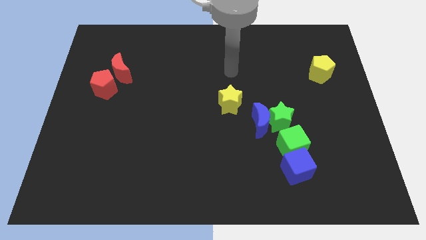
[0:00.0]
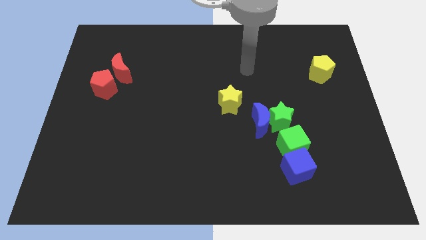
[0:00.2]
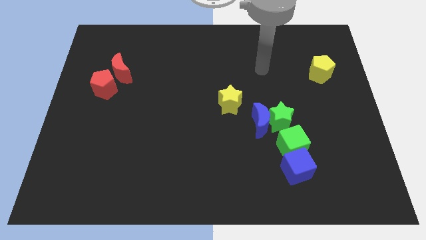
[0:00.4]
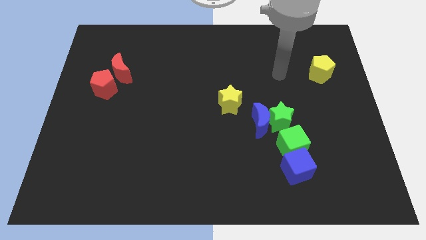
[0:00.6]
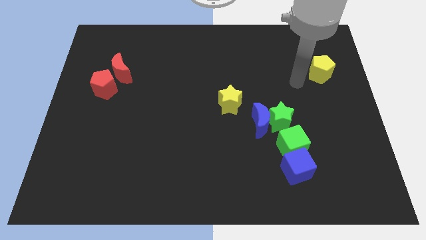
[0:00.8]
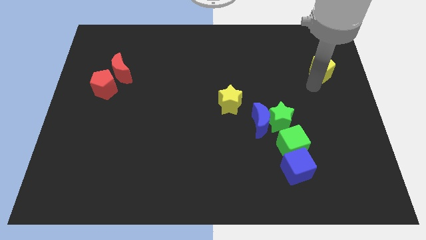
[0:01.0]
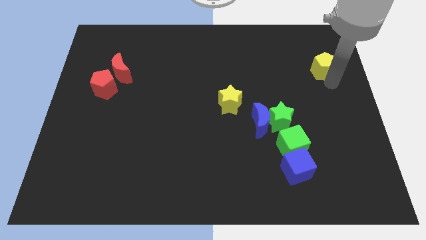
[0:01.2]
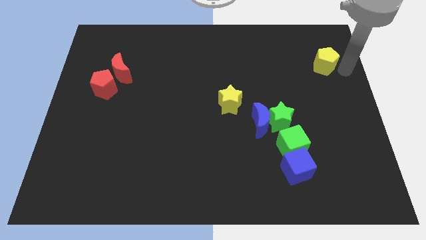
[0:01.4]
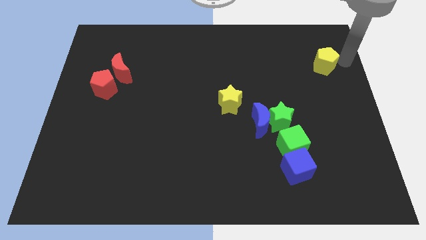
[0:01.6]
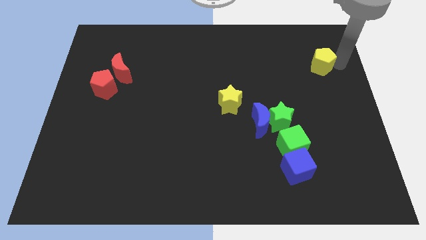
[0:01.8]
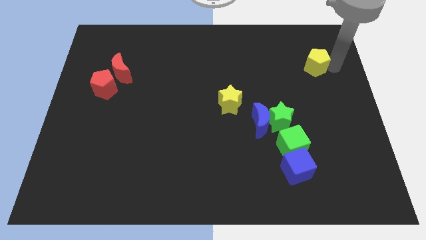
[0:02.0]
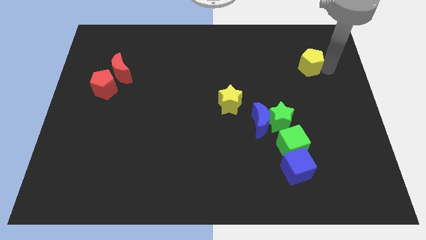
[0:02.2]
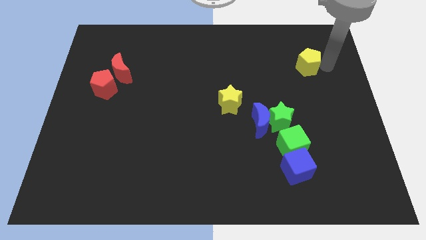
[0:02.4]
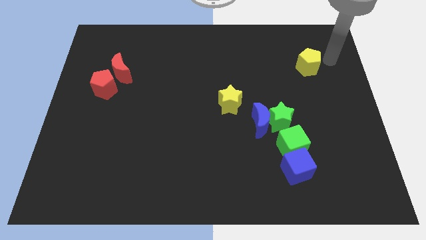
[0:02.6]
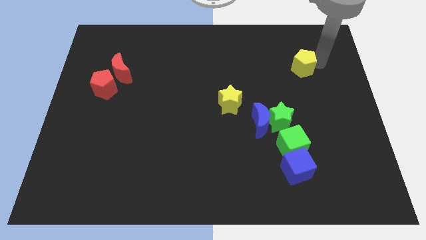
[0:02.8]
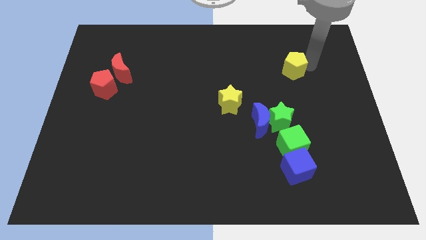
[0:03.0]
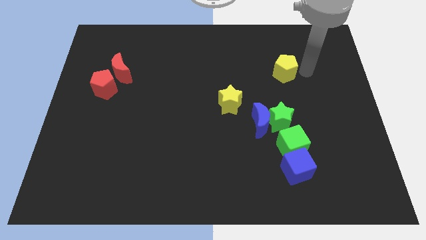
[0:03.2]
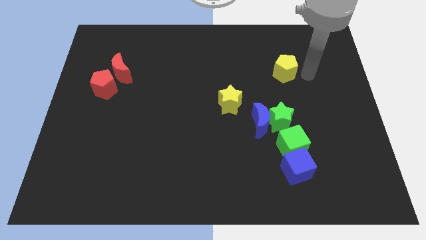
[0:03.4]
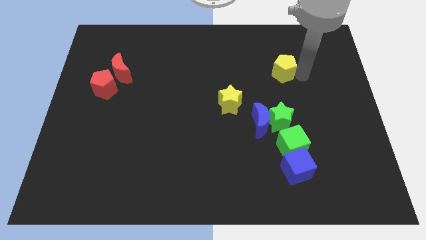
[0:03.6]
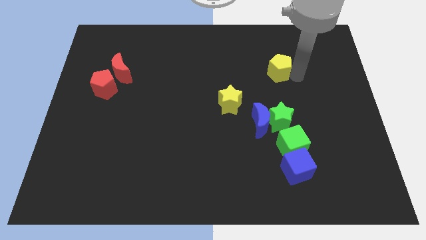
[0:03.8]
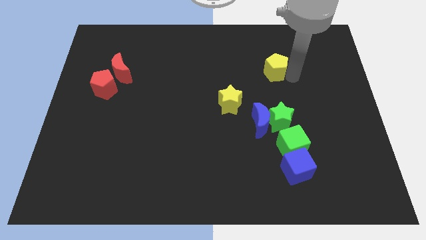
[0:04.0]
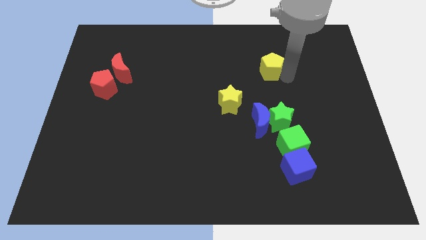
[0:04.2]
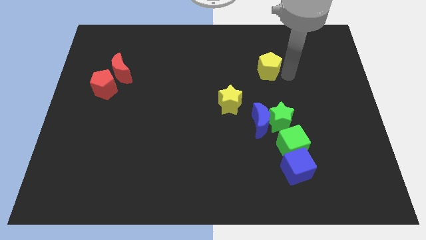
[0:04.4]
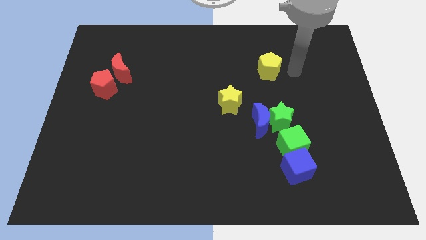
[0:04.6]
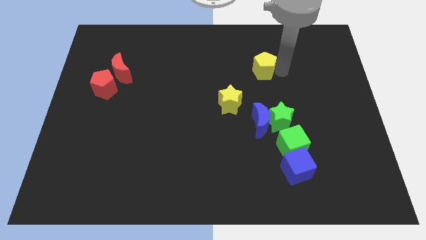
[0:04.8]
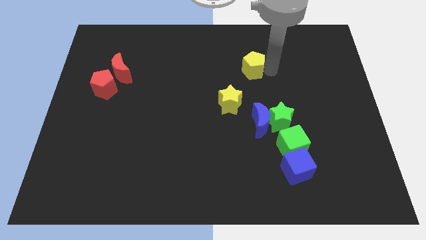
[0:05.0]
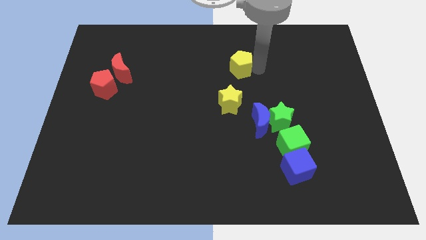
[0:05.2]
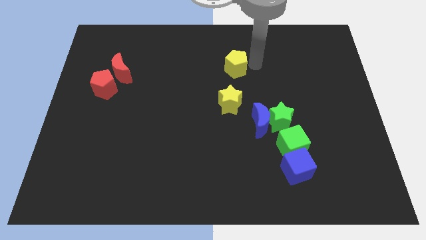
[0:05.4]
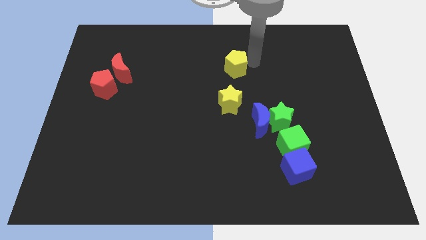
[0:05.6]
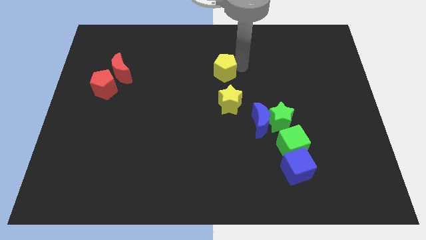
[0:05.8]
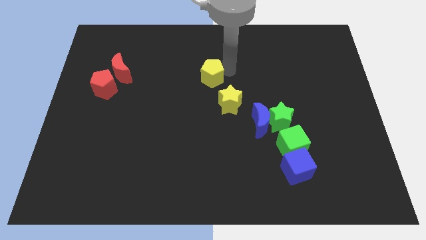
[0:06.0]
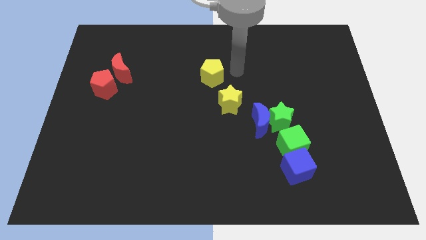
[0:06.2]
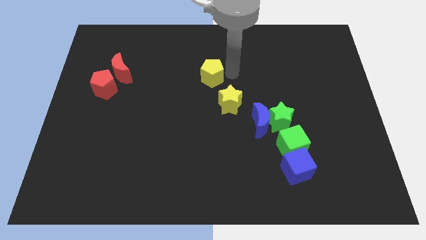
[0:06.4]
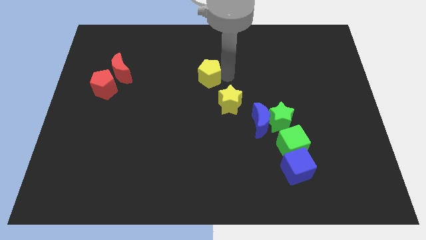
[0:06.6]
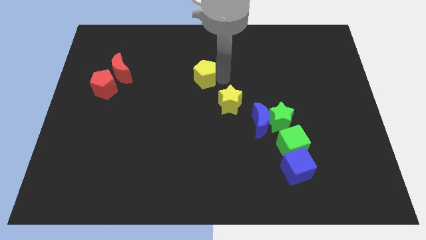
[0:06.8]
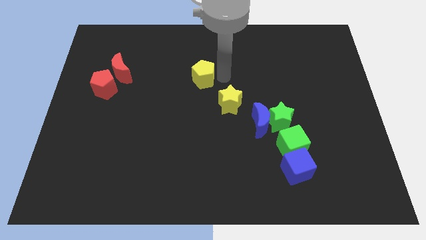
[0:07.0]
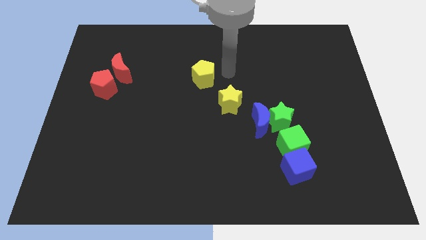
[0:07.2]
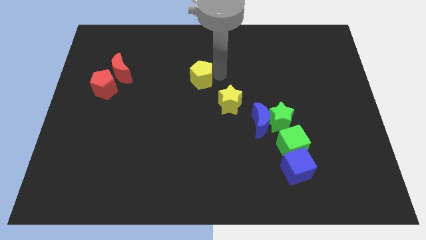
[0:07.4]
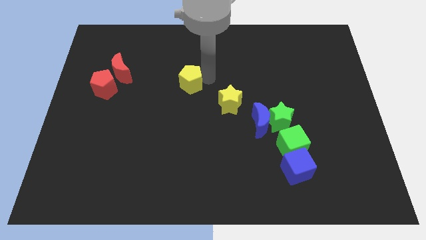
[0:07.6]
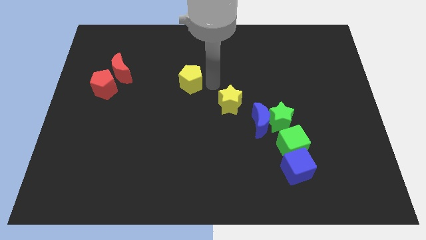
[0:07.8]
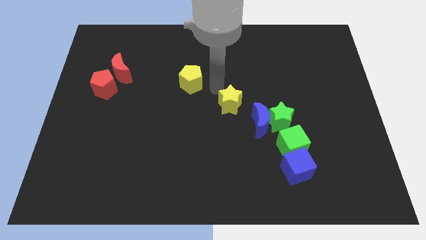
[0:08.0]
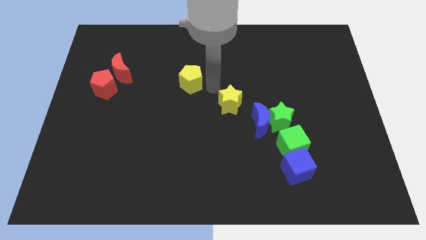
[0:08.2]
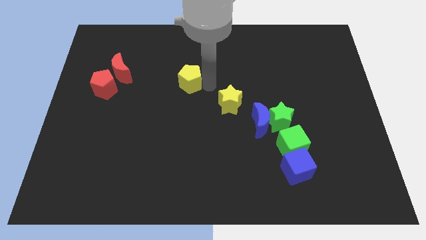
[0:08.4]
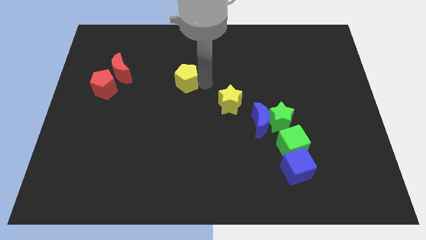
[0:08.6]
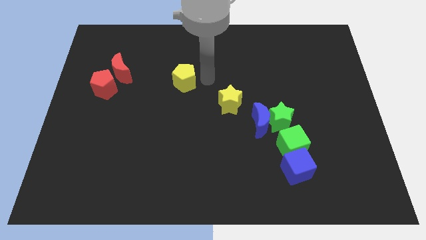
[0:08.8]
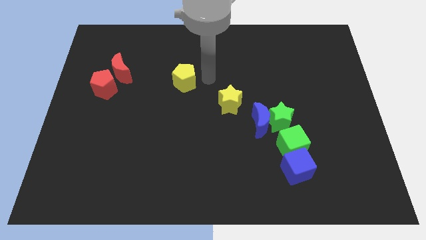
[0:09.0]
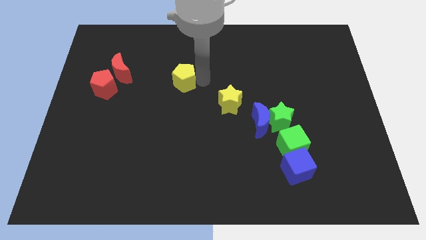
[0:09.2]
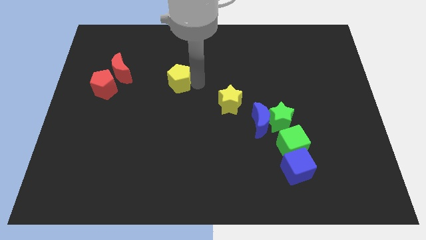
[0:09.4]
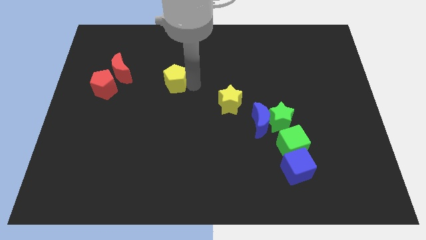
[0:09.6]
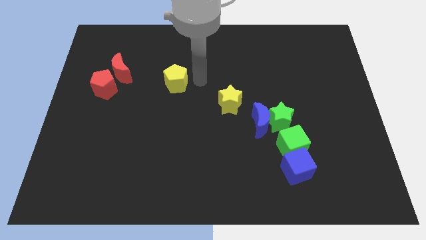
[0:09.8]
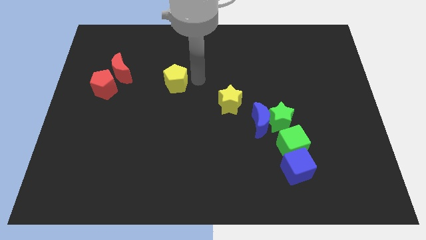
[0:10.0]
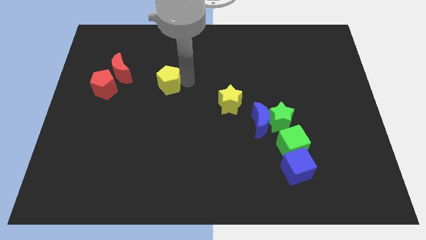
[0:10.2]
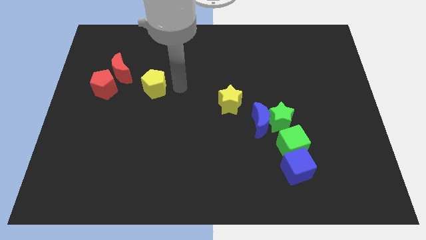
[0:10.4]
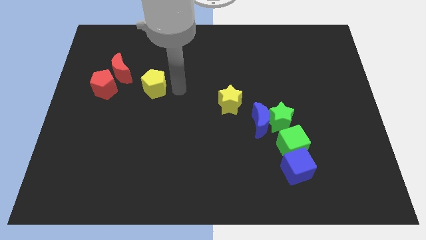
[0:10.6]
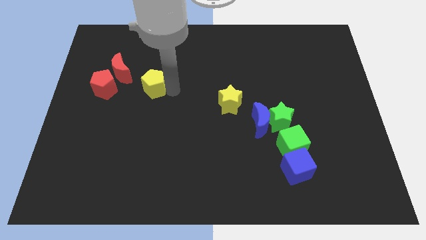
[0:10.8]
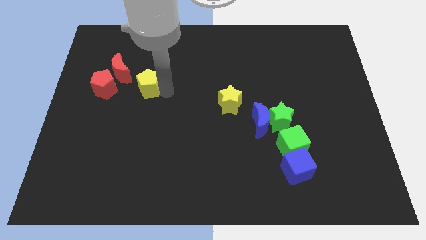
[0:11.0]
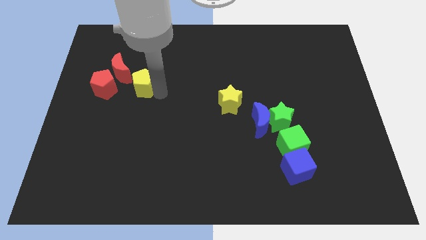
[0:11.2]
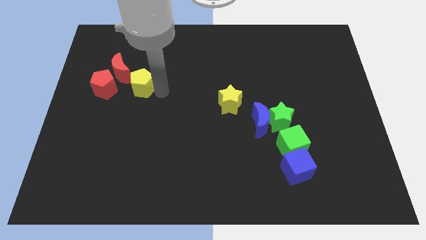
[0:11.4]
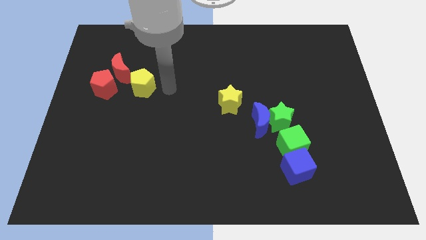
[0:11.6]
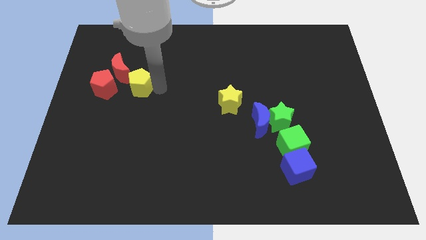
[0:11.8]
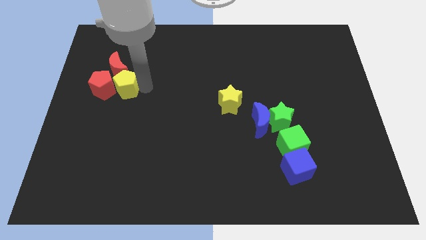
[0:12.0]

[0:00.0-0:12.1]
slide the yellow pentagon to the red pentagon

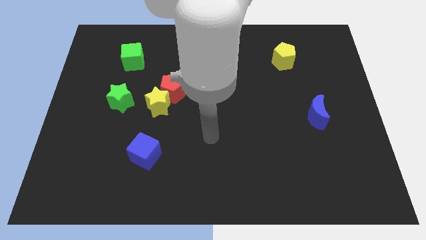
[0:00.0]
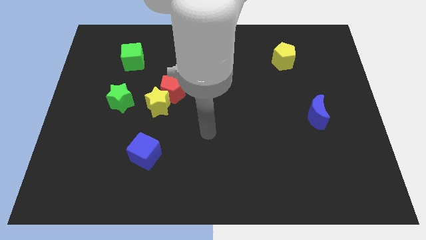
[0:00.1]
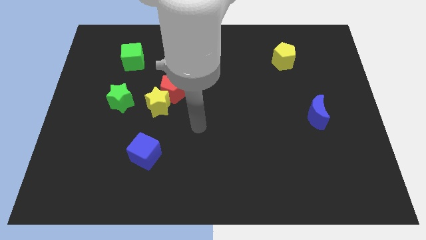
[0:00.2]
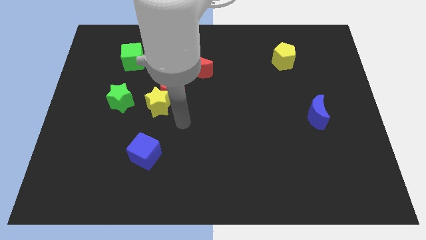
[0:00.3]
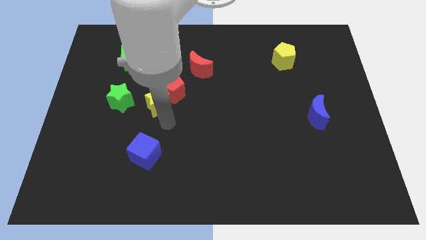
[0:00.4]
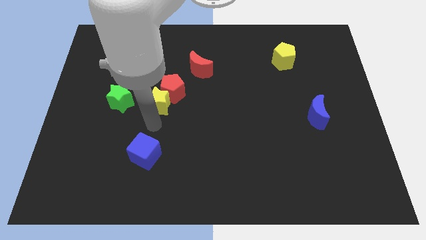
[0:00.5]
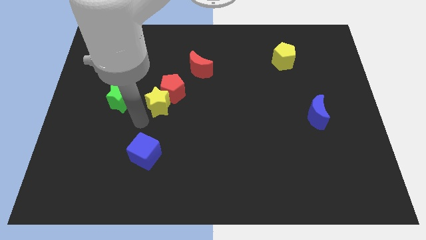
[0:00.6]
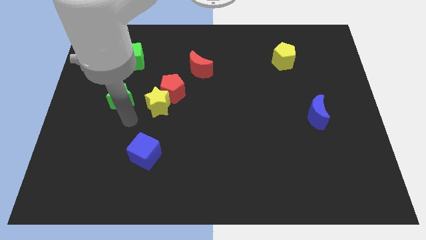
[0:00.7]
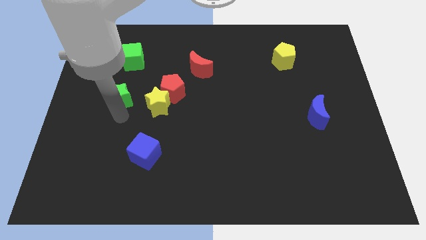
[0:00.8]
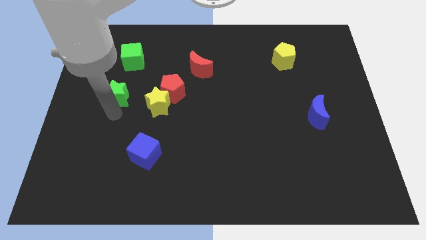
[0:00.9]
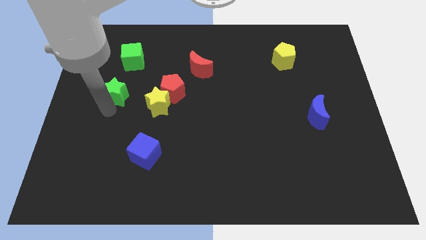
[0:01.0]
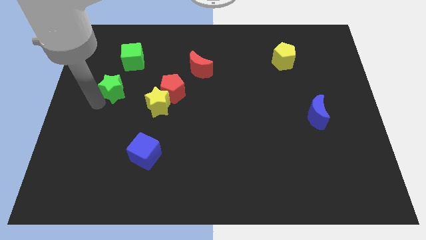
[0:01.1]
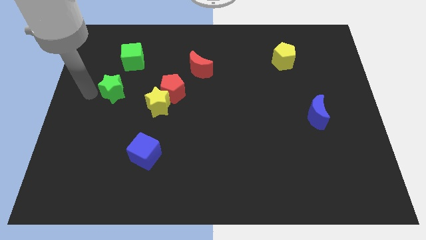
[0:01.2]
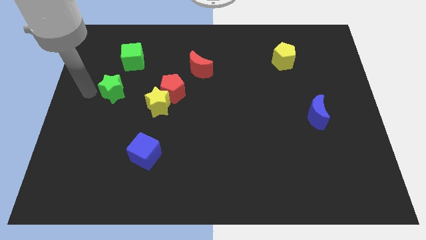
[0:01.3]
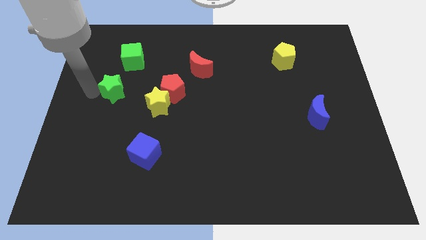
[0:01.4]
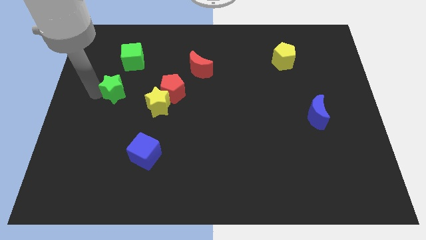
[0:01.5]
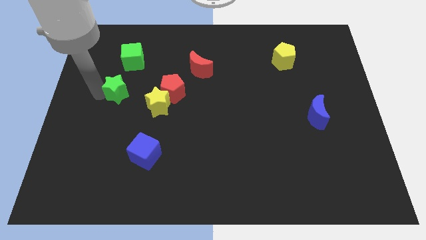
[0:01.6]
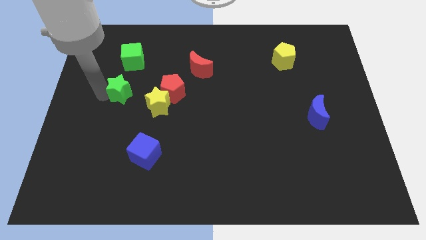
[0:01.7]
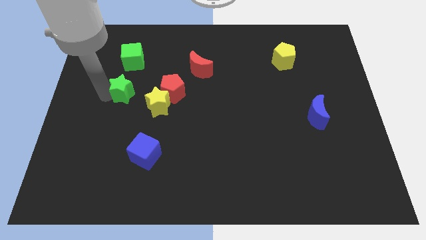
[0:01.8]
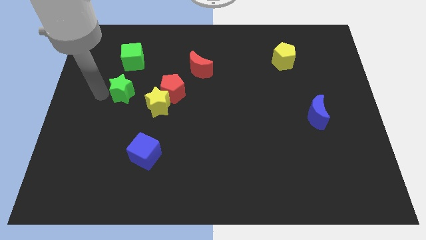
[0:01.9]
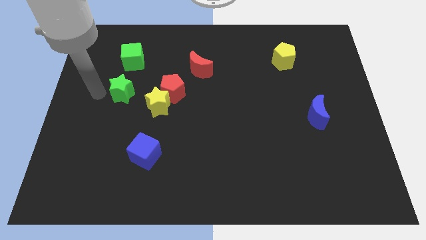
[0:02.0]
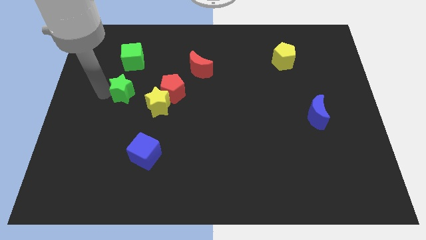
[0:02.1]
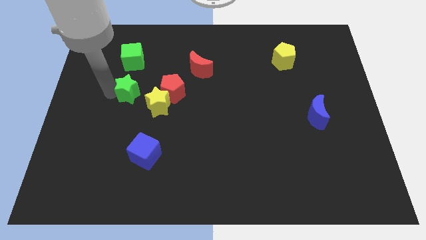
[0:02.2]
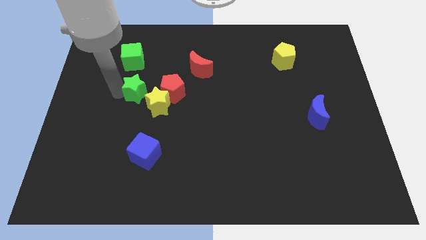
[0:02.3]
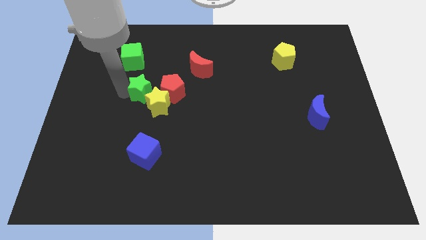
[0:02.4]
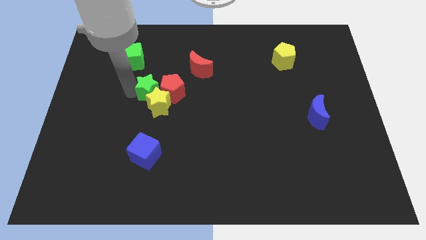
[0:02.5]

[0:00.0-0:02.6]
move the green star close to the red pentagon
